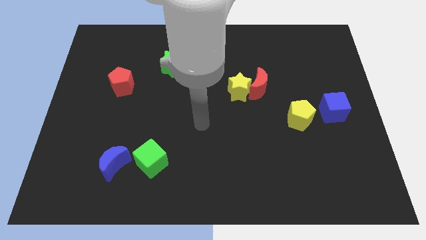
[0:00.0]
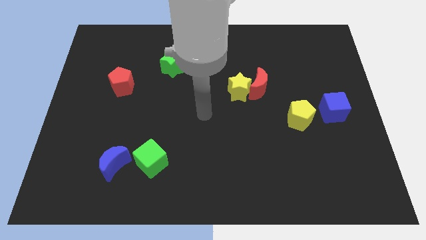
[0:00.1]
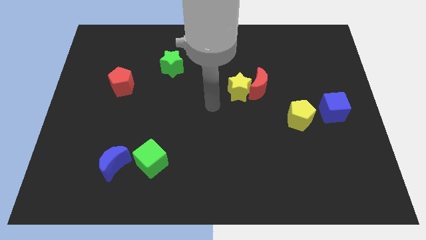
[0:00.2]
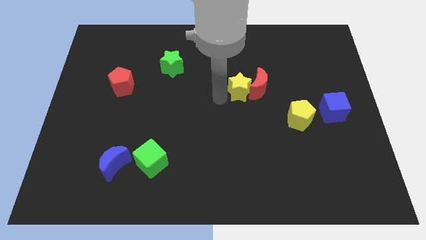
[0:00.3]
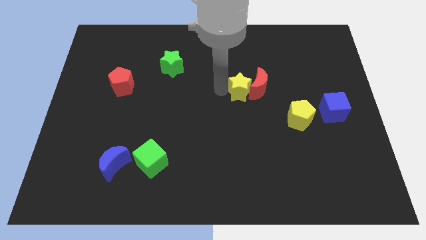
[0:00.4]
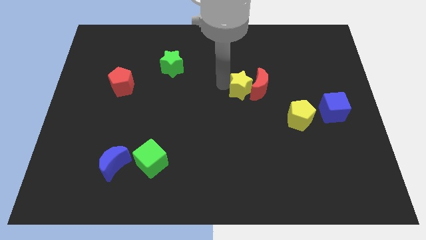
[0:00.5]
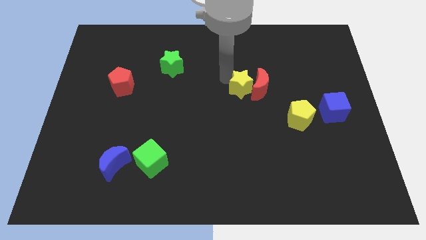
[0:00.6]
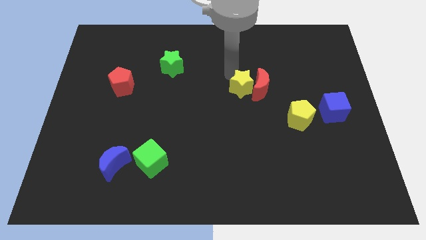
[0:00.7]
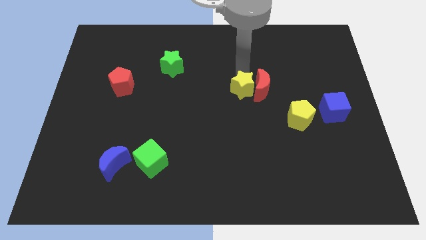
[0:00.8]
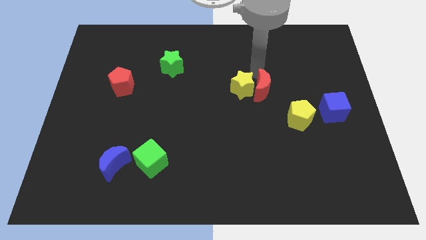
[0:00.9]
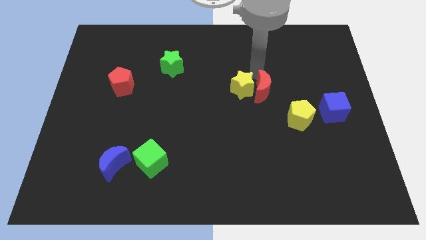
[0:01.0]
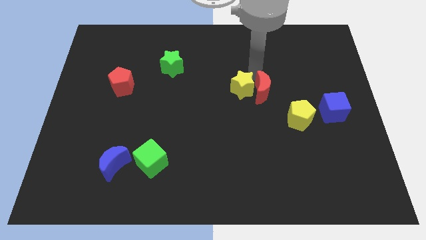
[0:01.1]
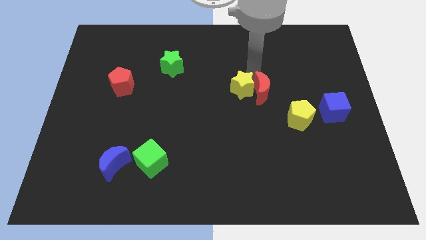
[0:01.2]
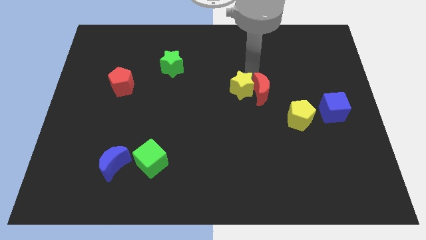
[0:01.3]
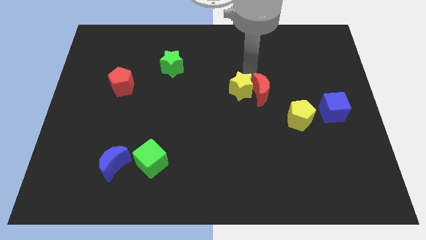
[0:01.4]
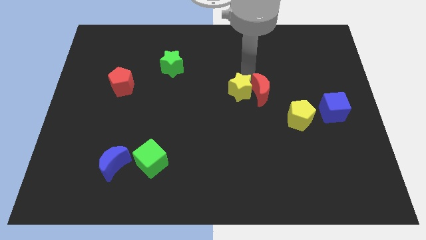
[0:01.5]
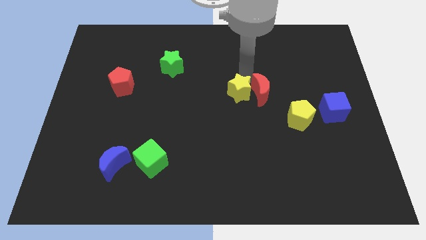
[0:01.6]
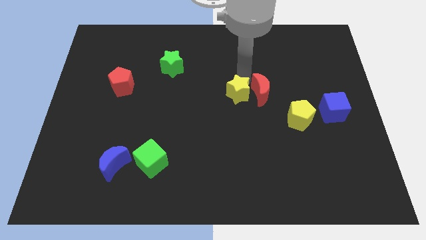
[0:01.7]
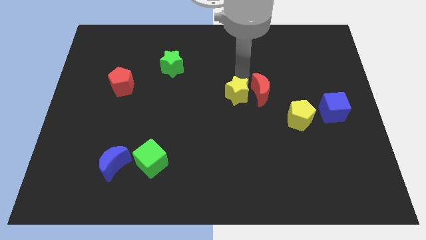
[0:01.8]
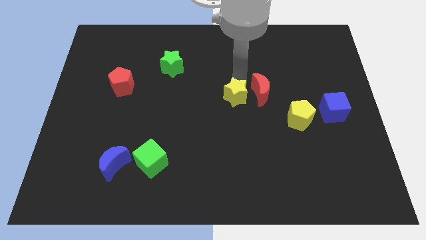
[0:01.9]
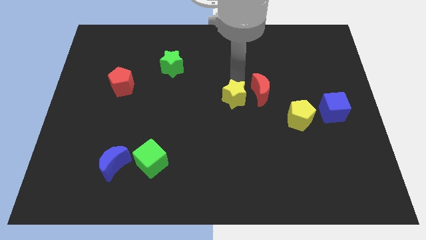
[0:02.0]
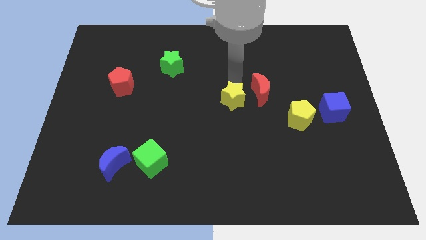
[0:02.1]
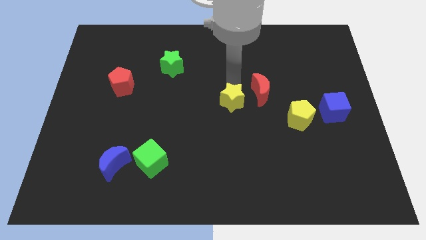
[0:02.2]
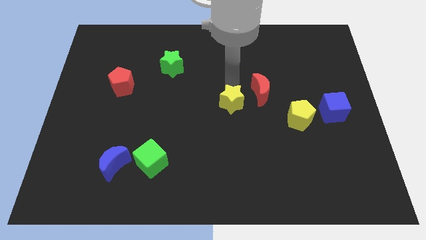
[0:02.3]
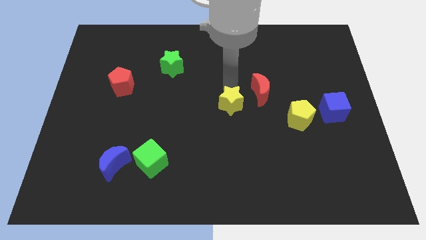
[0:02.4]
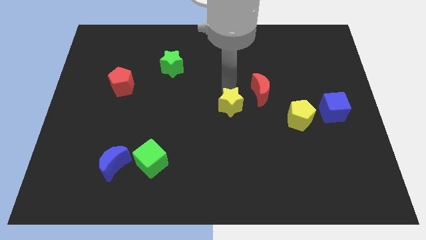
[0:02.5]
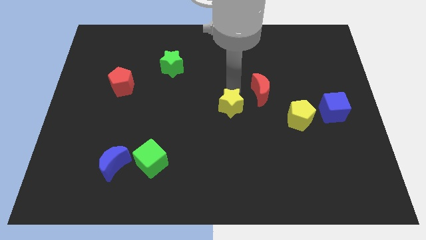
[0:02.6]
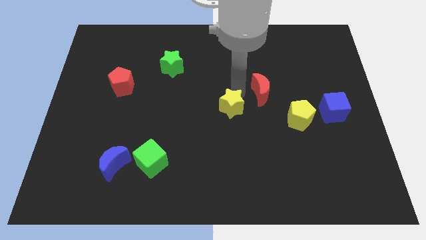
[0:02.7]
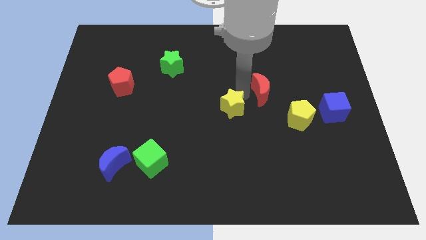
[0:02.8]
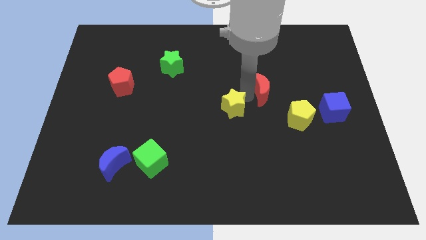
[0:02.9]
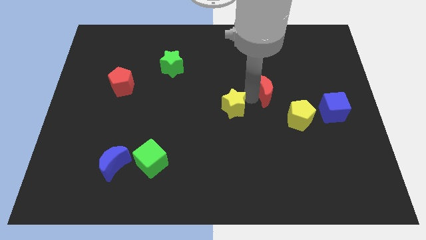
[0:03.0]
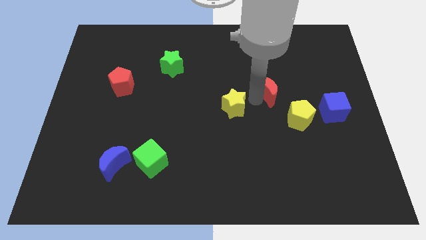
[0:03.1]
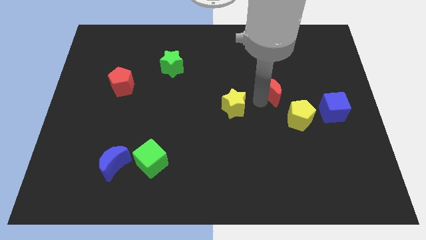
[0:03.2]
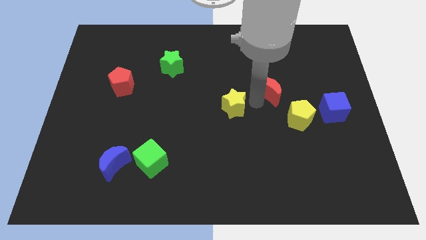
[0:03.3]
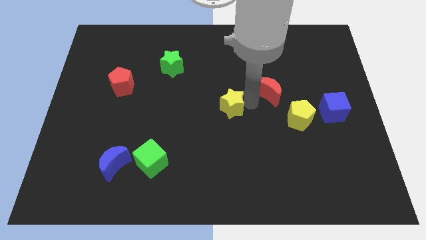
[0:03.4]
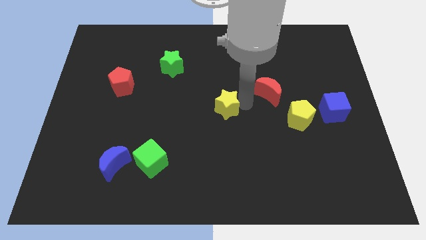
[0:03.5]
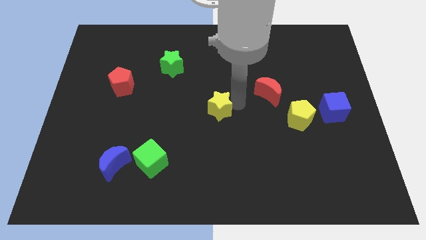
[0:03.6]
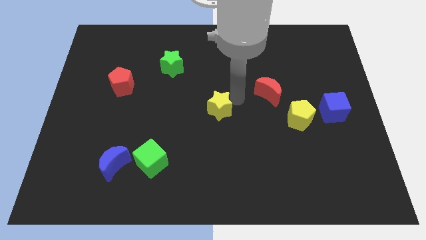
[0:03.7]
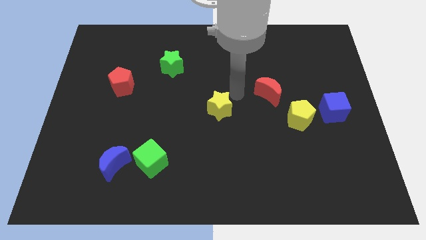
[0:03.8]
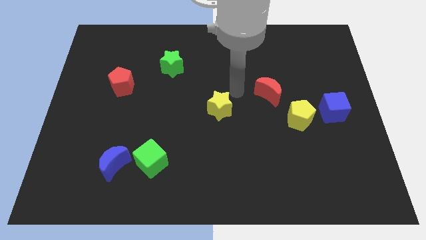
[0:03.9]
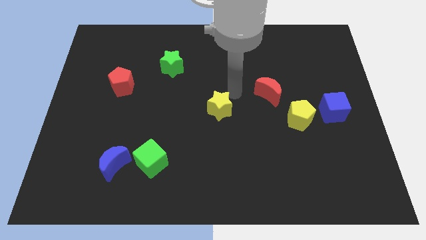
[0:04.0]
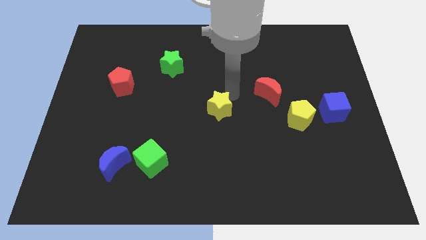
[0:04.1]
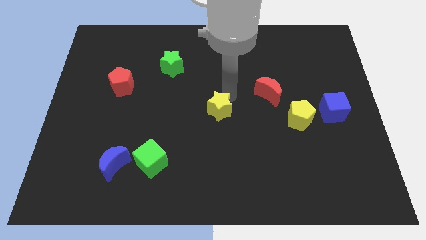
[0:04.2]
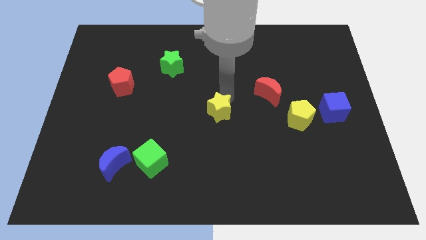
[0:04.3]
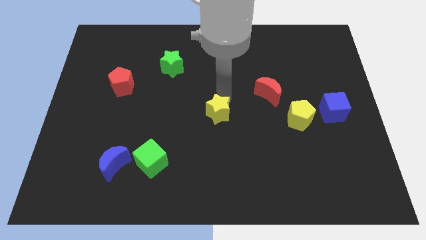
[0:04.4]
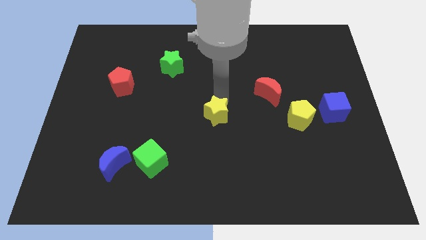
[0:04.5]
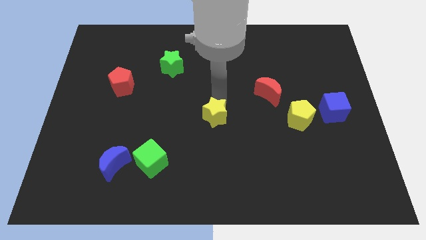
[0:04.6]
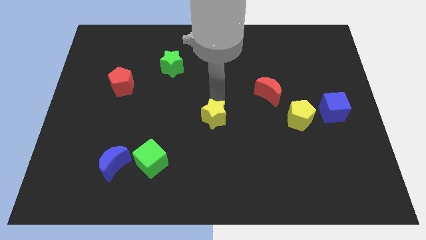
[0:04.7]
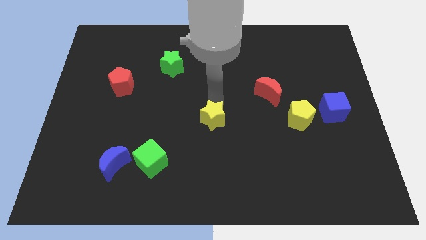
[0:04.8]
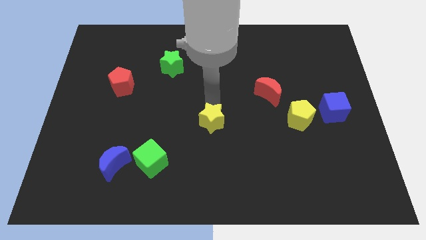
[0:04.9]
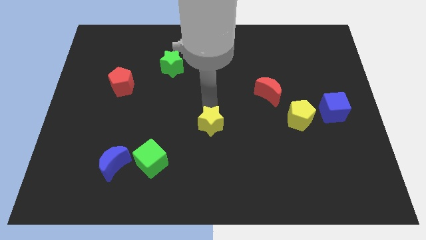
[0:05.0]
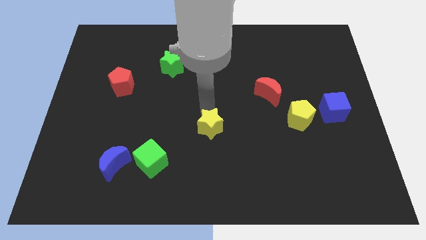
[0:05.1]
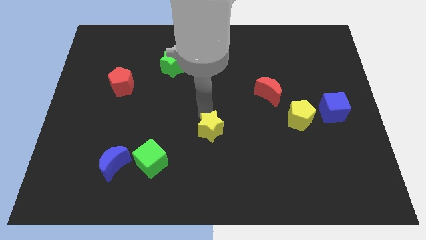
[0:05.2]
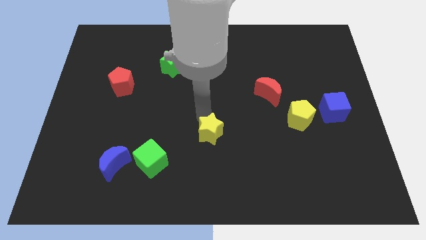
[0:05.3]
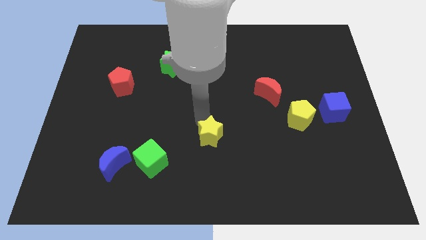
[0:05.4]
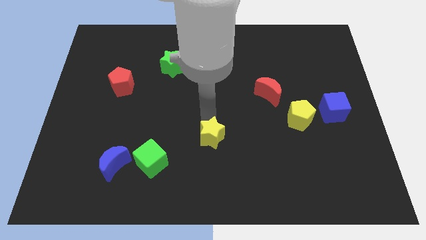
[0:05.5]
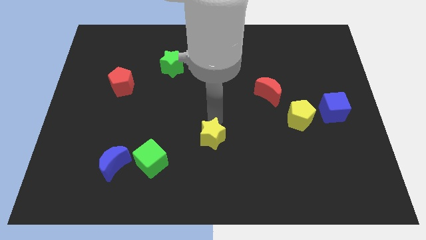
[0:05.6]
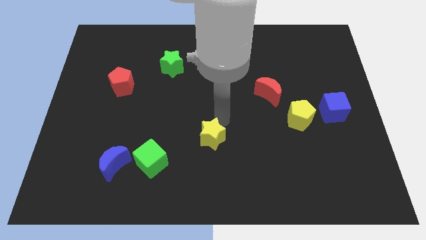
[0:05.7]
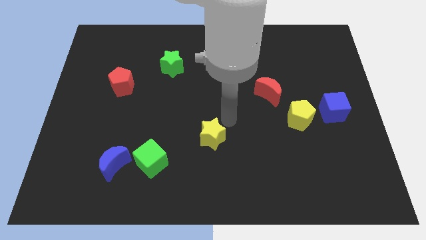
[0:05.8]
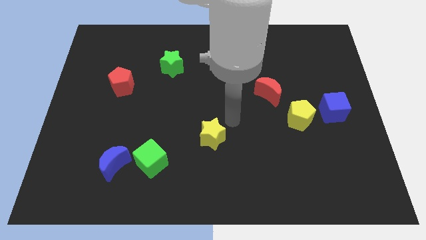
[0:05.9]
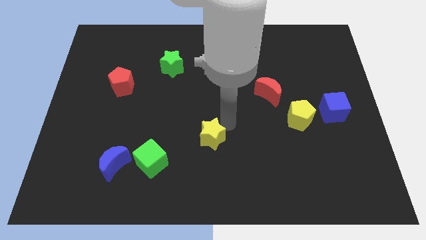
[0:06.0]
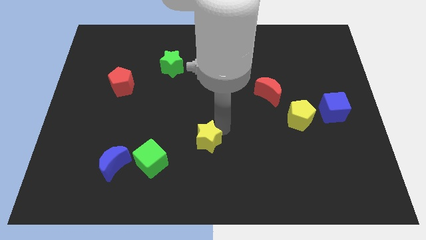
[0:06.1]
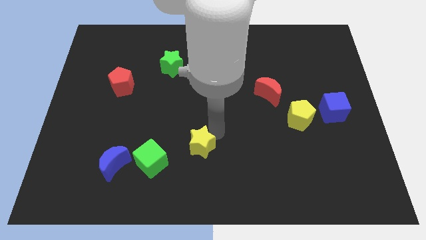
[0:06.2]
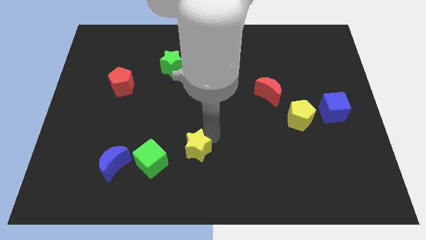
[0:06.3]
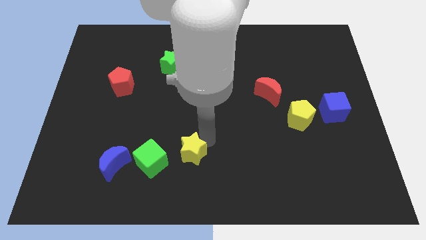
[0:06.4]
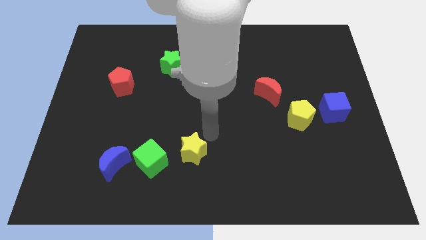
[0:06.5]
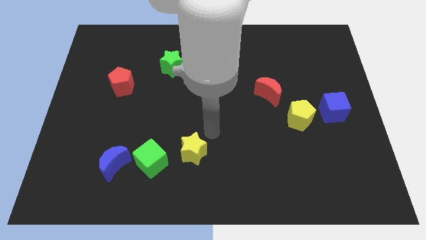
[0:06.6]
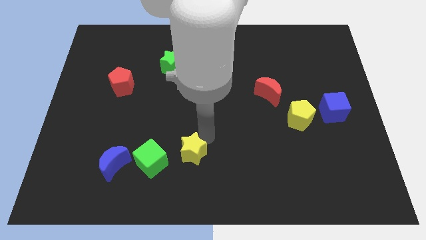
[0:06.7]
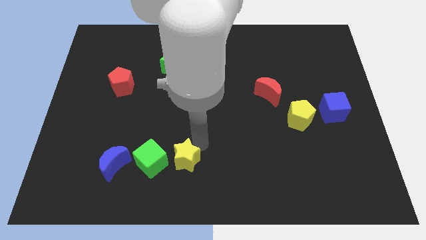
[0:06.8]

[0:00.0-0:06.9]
move the yellow star down and left

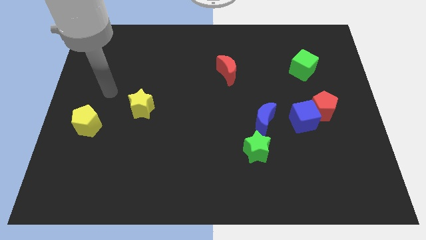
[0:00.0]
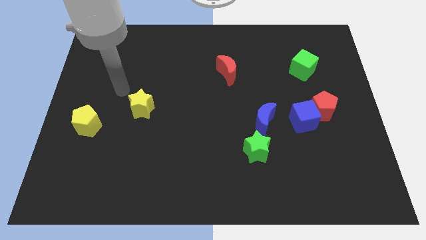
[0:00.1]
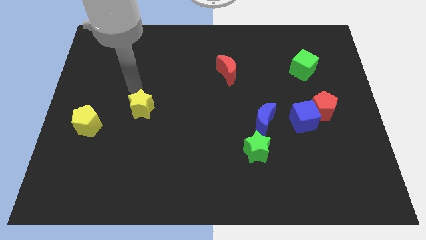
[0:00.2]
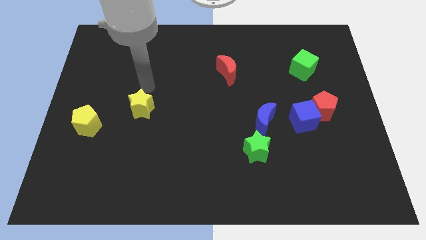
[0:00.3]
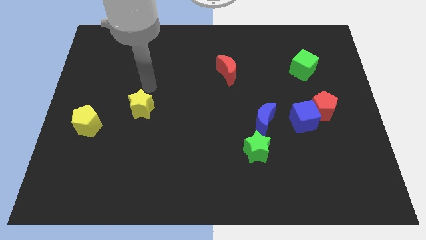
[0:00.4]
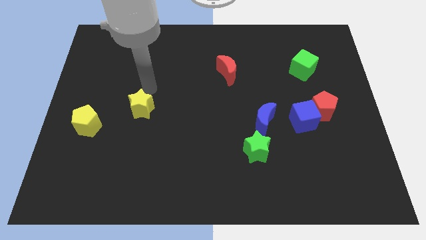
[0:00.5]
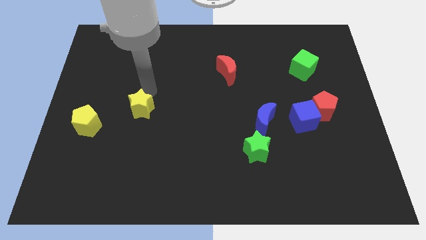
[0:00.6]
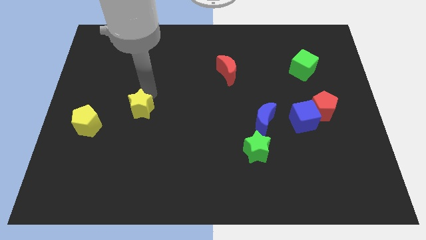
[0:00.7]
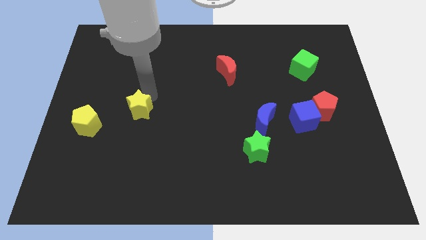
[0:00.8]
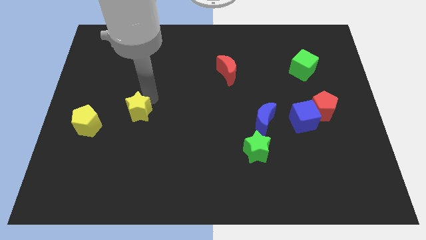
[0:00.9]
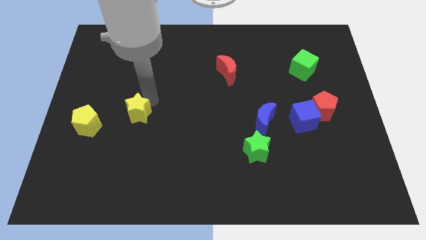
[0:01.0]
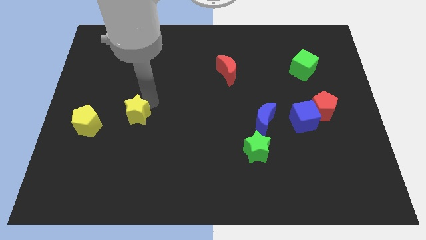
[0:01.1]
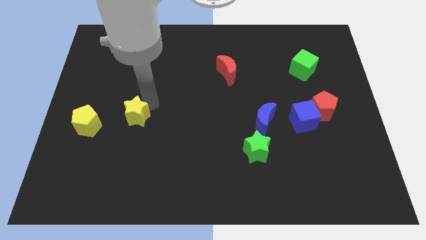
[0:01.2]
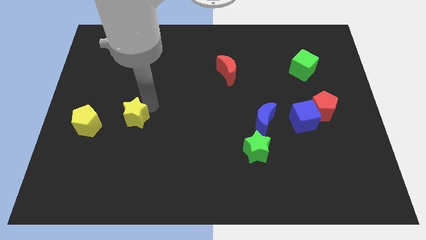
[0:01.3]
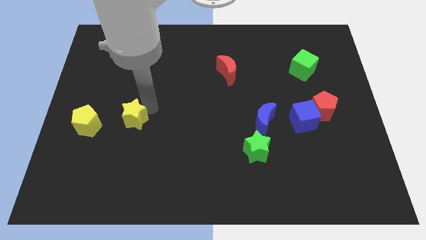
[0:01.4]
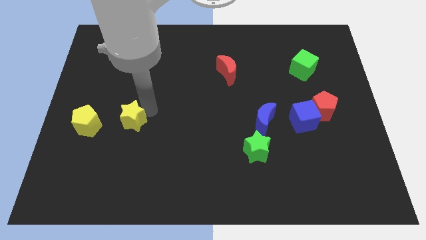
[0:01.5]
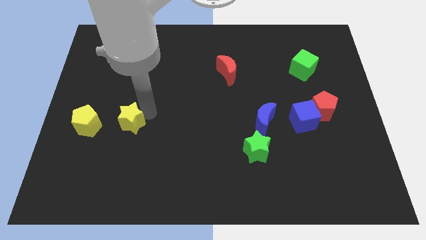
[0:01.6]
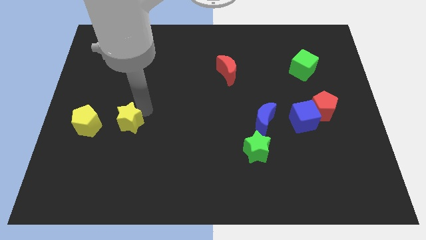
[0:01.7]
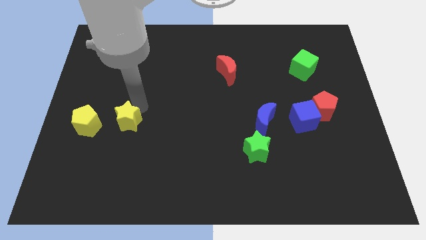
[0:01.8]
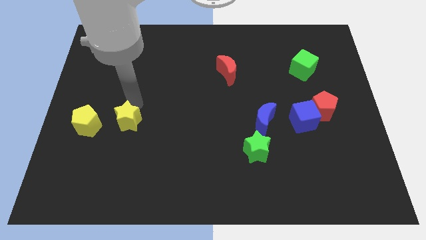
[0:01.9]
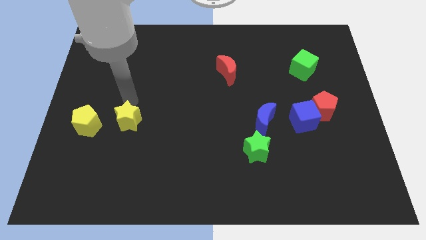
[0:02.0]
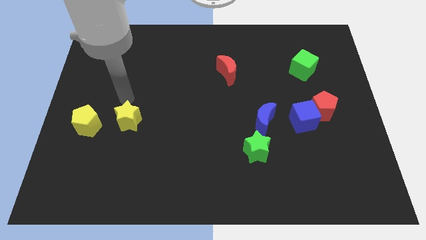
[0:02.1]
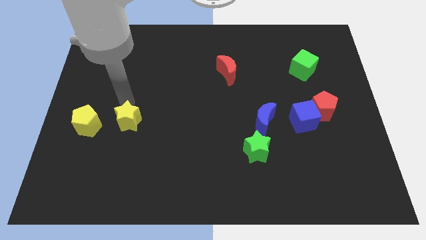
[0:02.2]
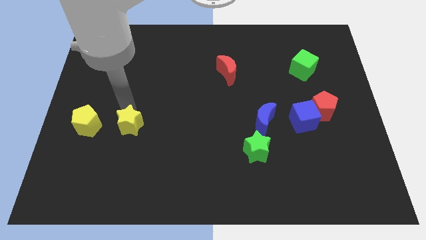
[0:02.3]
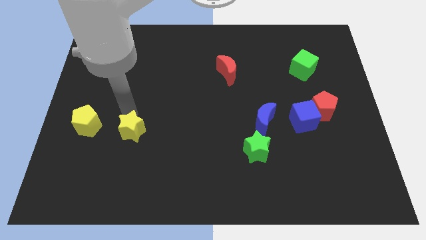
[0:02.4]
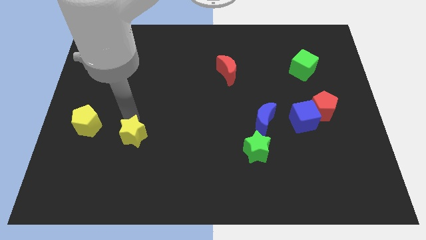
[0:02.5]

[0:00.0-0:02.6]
slide the yellow star slightly downwards
